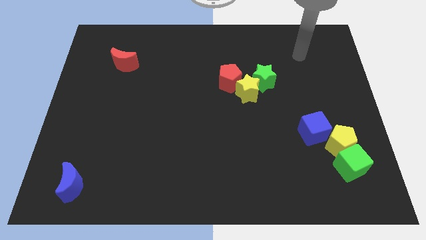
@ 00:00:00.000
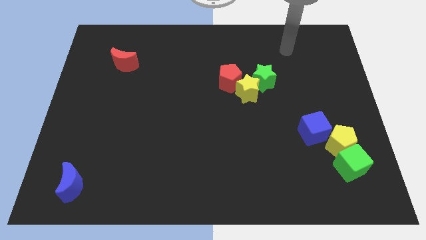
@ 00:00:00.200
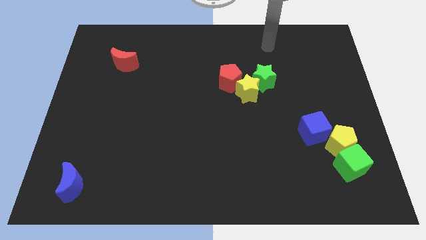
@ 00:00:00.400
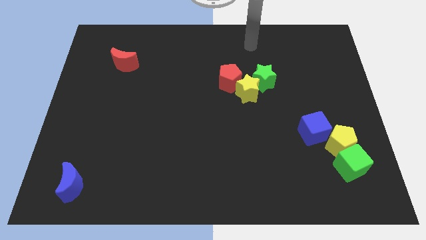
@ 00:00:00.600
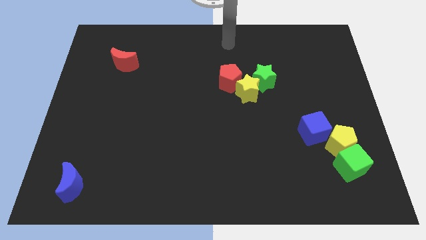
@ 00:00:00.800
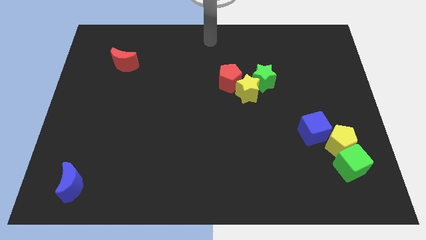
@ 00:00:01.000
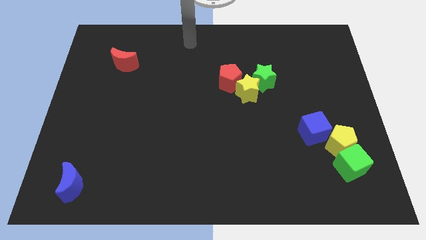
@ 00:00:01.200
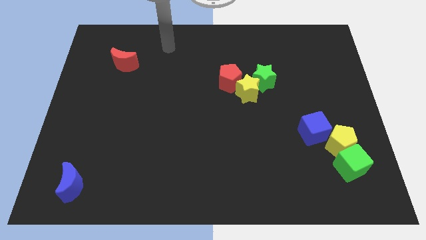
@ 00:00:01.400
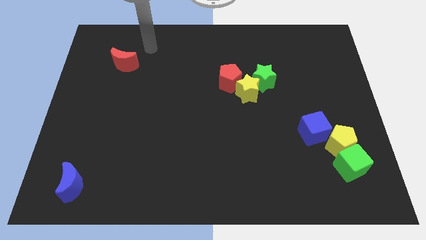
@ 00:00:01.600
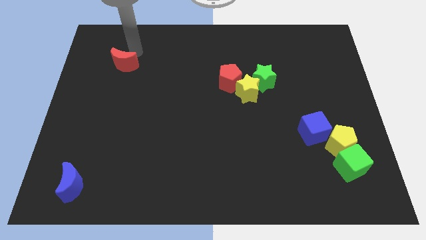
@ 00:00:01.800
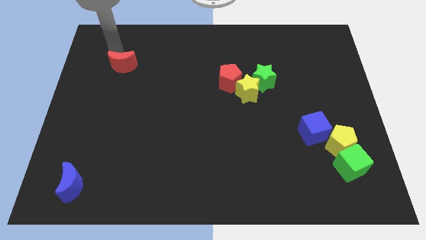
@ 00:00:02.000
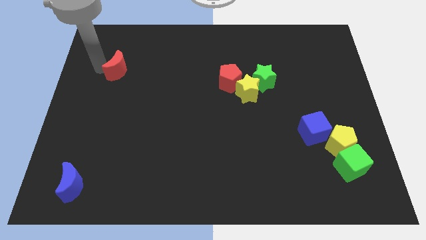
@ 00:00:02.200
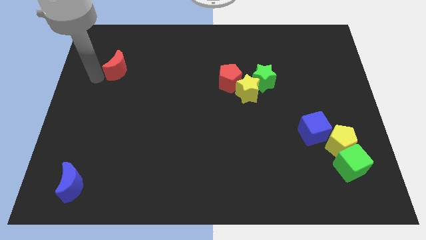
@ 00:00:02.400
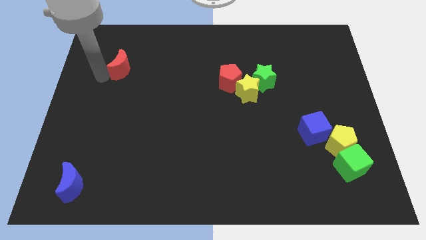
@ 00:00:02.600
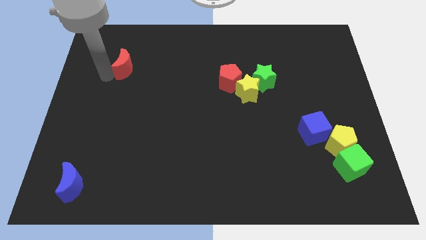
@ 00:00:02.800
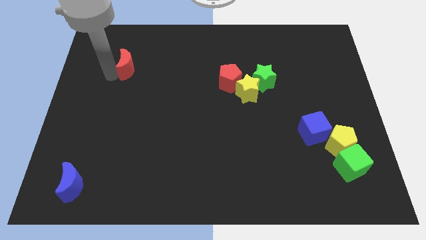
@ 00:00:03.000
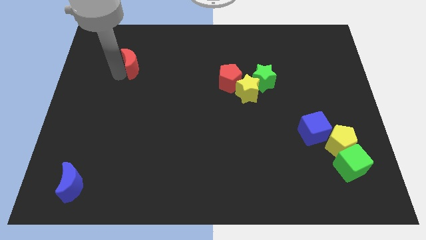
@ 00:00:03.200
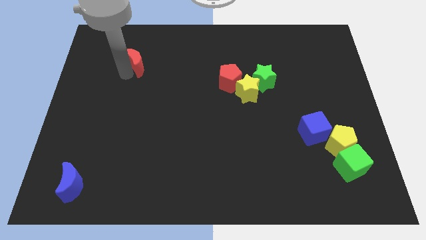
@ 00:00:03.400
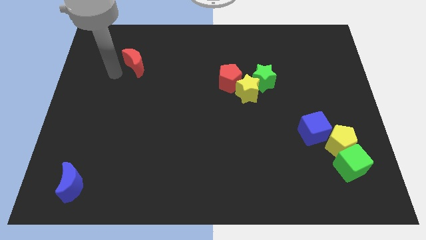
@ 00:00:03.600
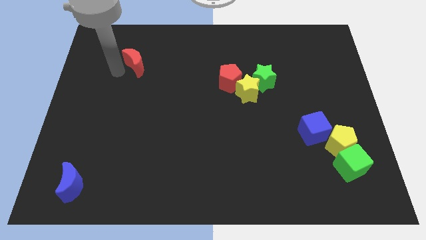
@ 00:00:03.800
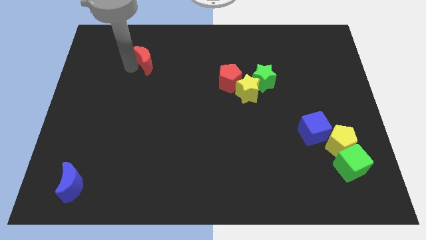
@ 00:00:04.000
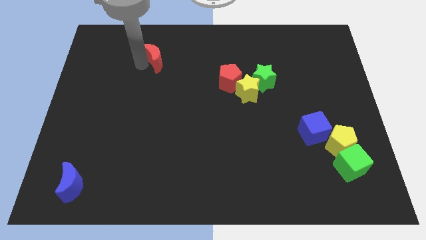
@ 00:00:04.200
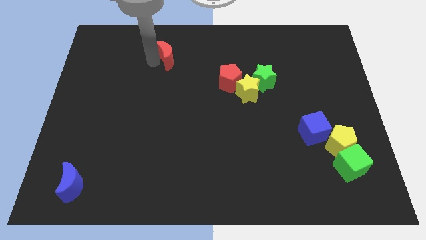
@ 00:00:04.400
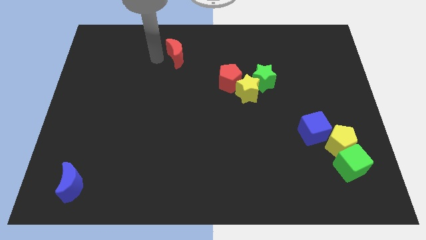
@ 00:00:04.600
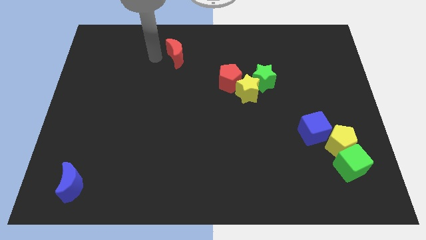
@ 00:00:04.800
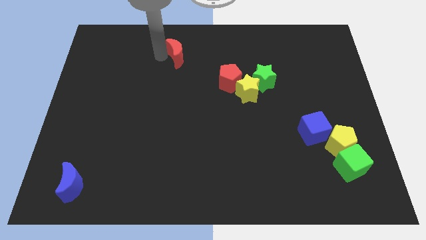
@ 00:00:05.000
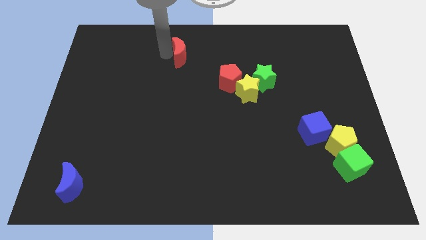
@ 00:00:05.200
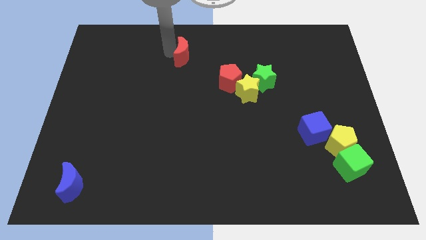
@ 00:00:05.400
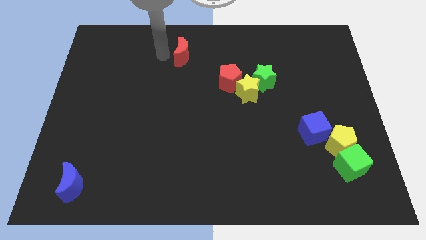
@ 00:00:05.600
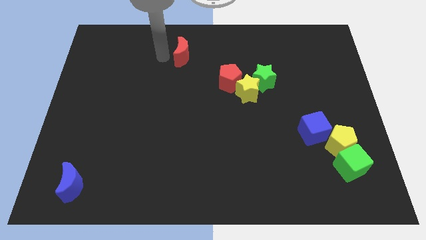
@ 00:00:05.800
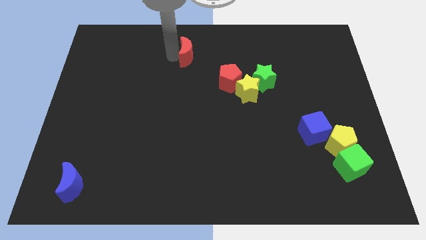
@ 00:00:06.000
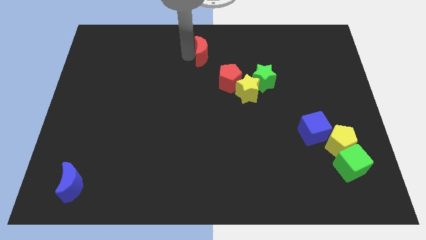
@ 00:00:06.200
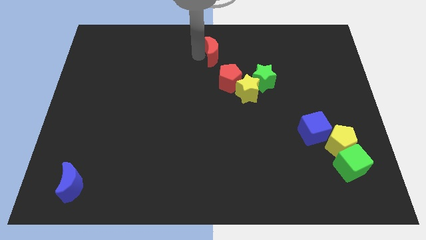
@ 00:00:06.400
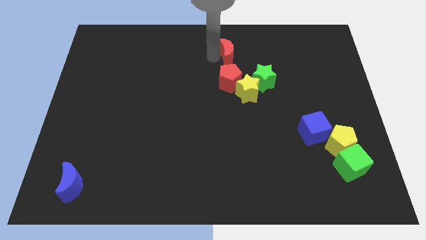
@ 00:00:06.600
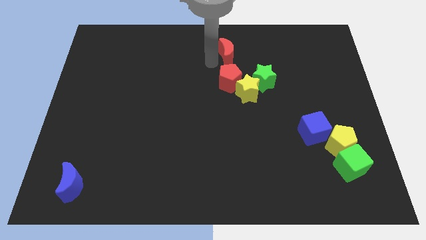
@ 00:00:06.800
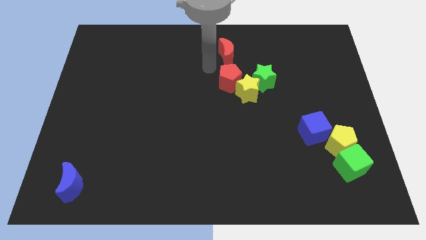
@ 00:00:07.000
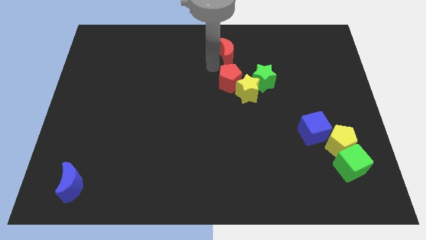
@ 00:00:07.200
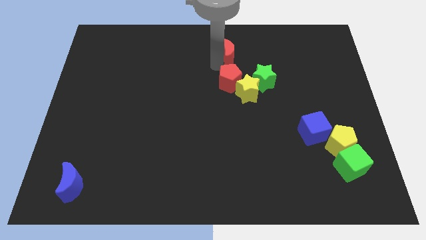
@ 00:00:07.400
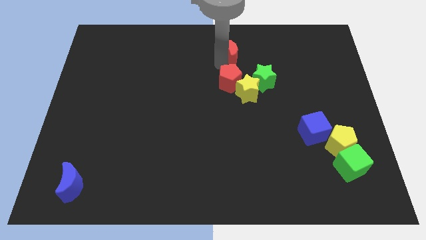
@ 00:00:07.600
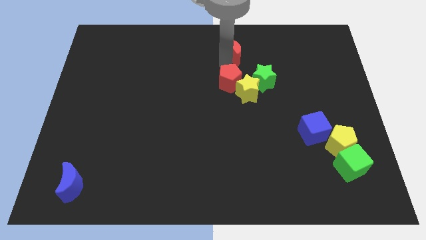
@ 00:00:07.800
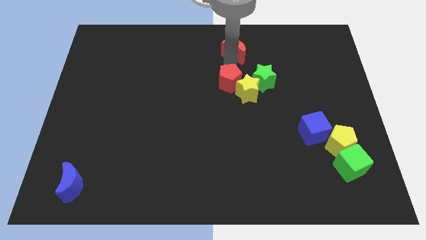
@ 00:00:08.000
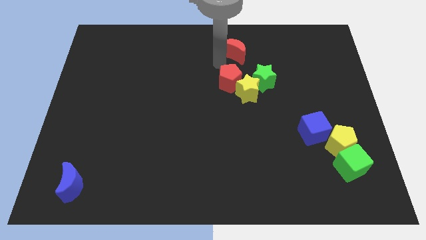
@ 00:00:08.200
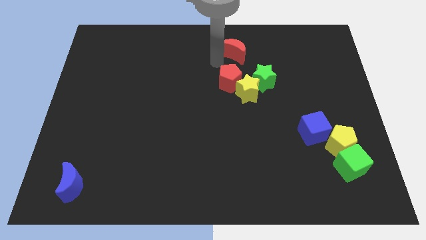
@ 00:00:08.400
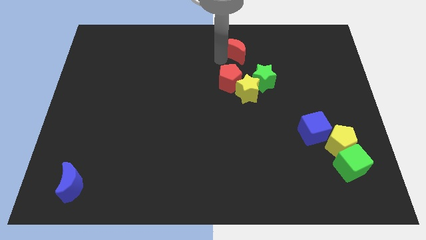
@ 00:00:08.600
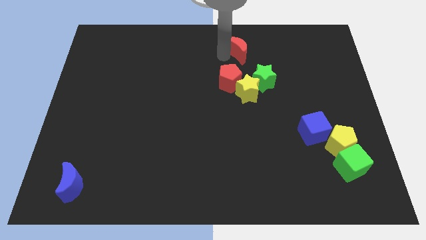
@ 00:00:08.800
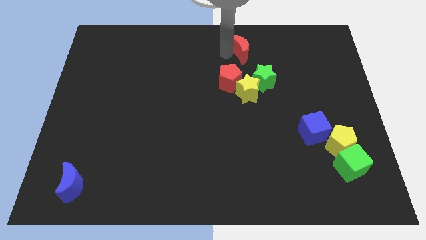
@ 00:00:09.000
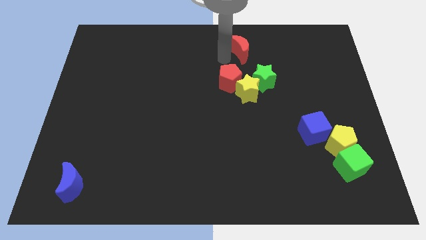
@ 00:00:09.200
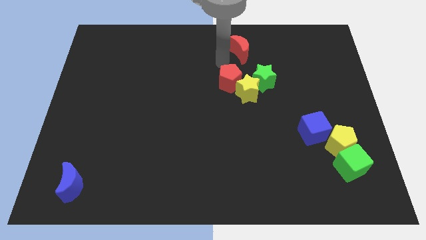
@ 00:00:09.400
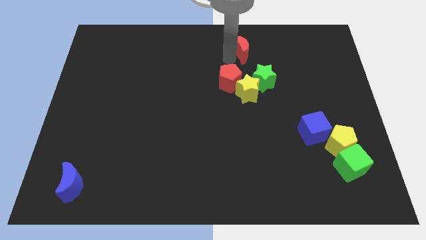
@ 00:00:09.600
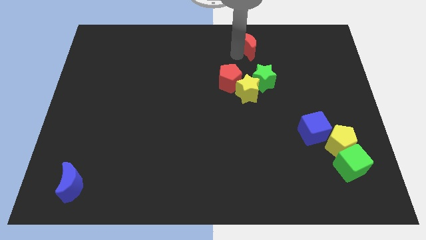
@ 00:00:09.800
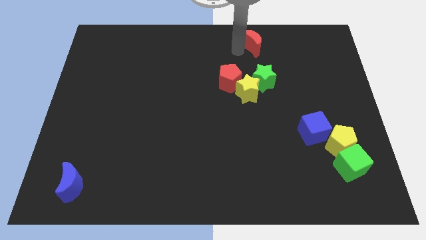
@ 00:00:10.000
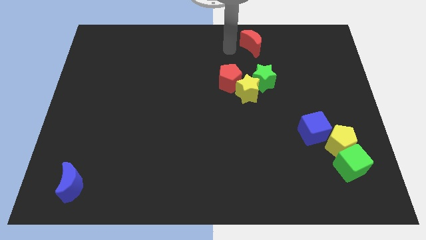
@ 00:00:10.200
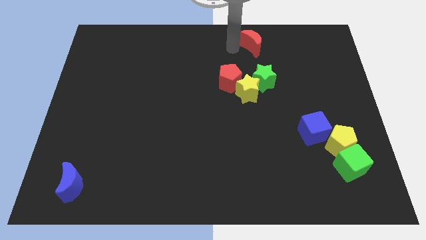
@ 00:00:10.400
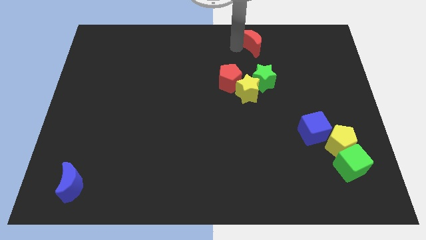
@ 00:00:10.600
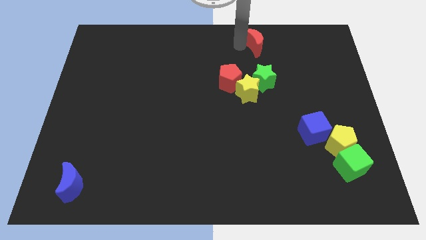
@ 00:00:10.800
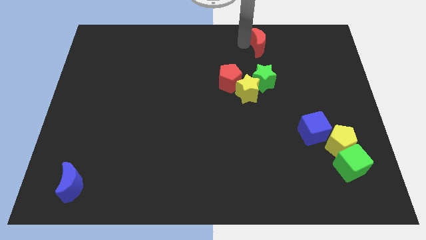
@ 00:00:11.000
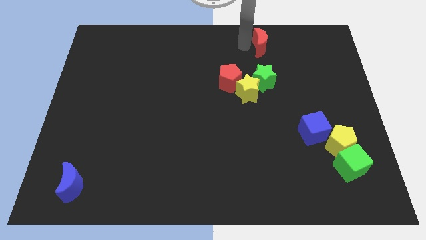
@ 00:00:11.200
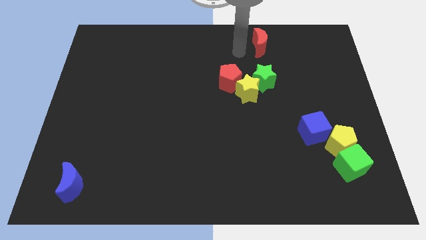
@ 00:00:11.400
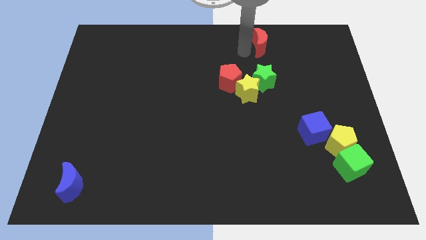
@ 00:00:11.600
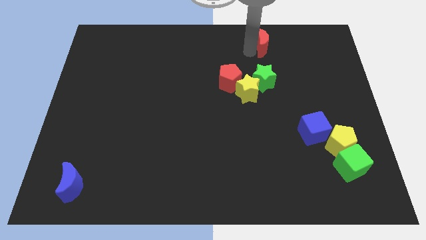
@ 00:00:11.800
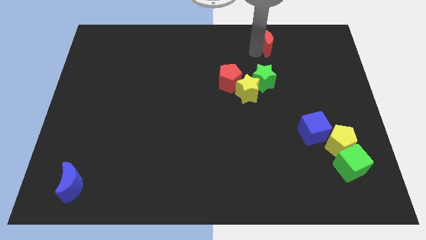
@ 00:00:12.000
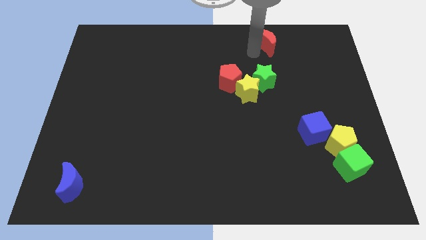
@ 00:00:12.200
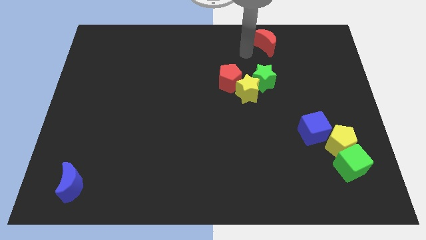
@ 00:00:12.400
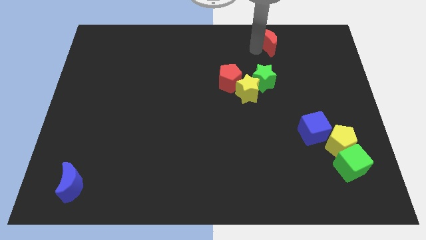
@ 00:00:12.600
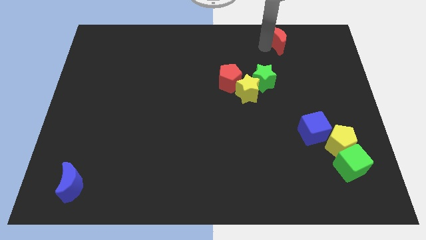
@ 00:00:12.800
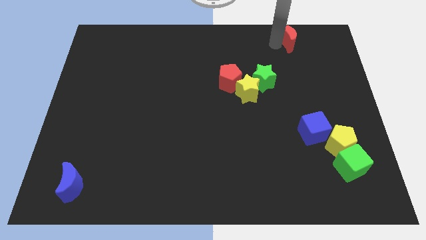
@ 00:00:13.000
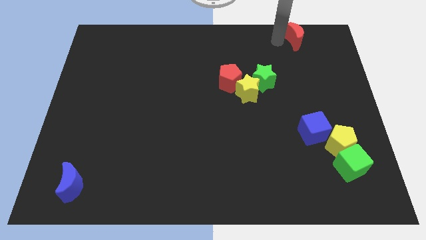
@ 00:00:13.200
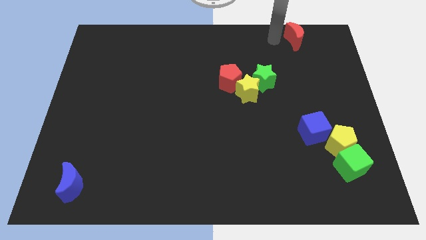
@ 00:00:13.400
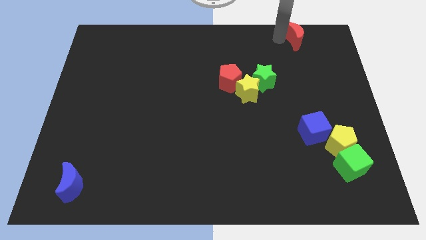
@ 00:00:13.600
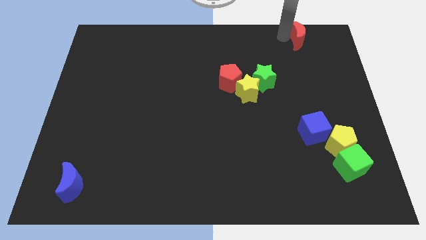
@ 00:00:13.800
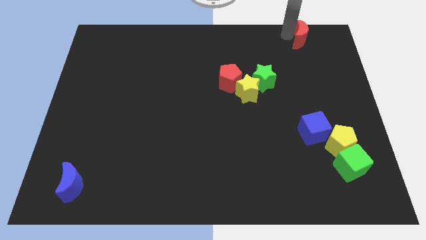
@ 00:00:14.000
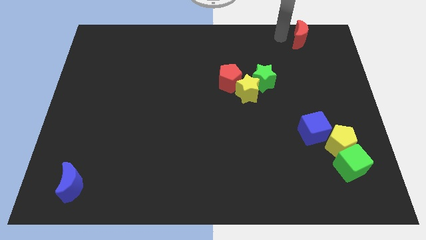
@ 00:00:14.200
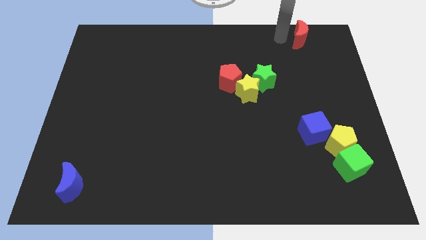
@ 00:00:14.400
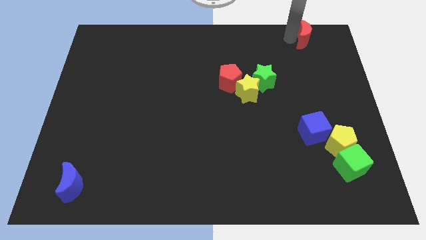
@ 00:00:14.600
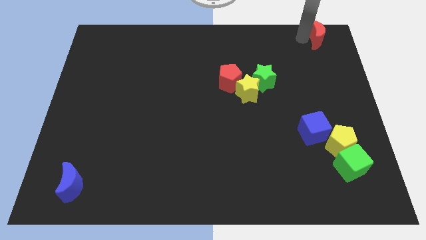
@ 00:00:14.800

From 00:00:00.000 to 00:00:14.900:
put the red moon to the top right corner
